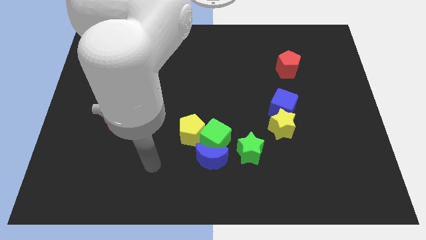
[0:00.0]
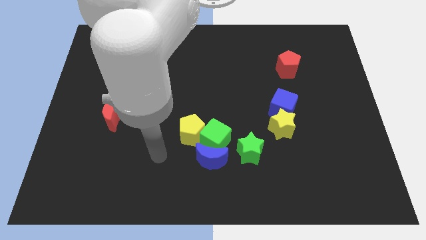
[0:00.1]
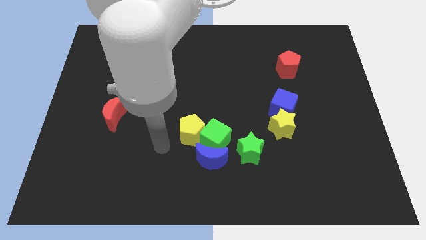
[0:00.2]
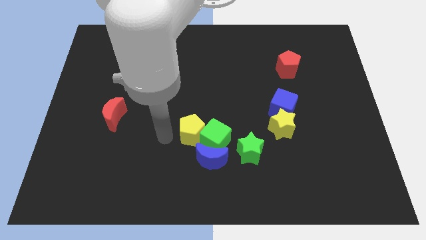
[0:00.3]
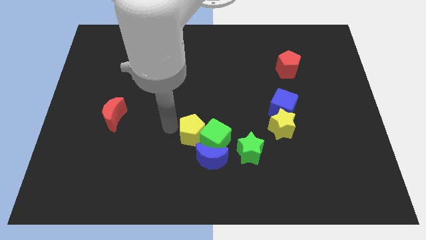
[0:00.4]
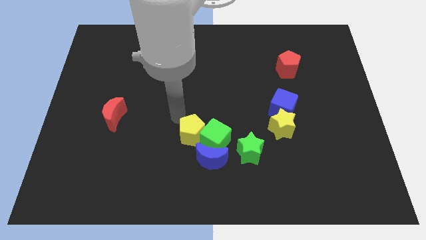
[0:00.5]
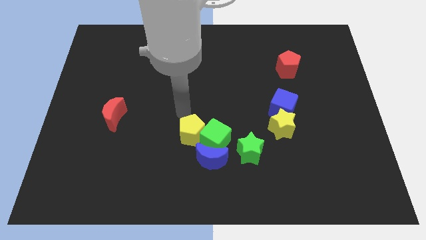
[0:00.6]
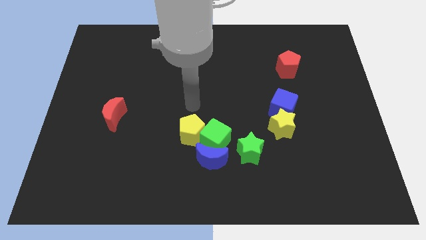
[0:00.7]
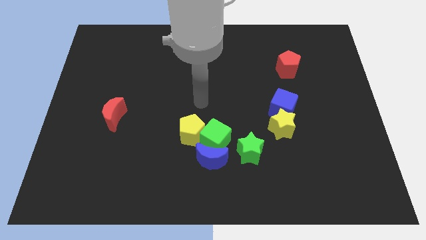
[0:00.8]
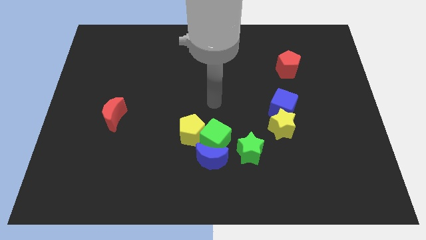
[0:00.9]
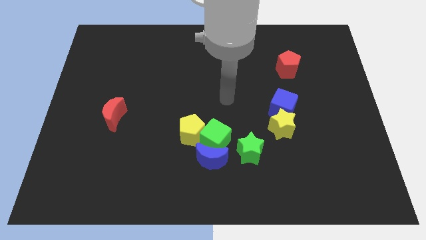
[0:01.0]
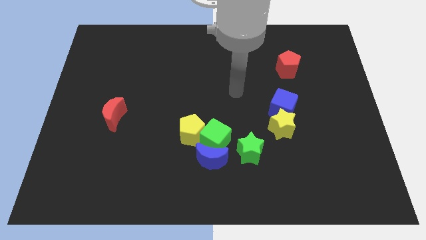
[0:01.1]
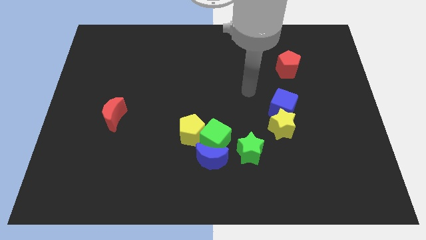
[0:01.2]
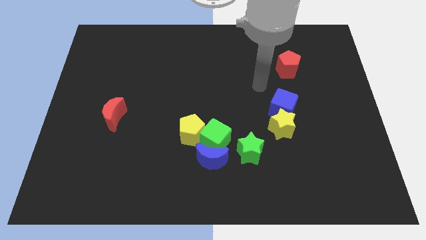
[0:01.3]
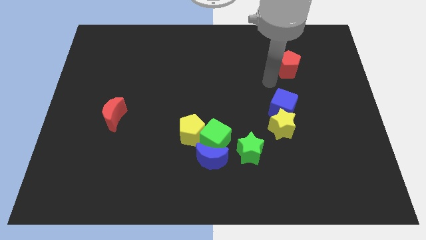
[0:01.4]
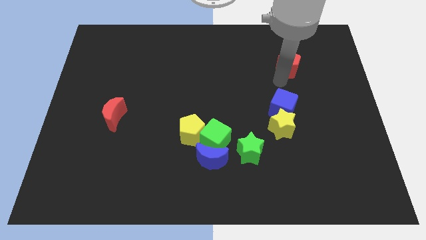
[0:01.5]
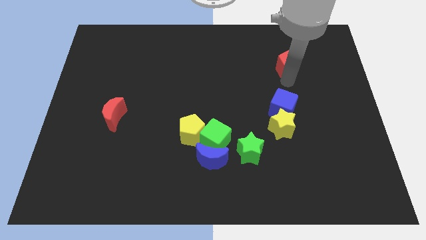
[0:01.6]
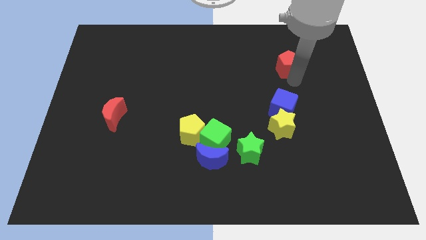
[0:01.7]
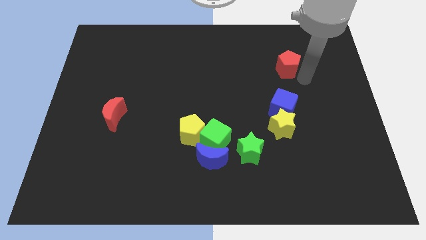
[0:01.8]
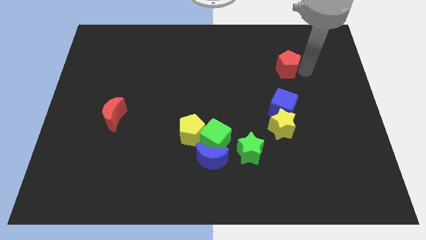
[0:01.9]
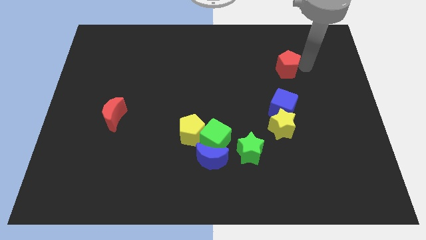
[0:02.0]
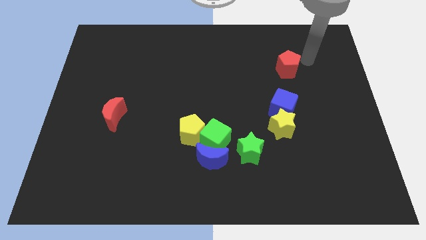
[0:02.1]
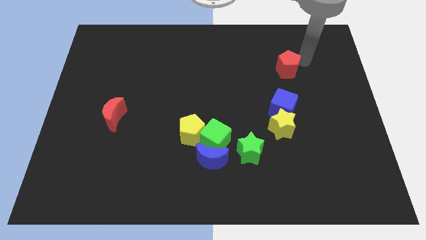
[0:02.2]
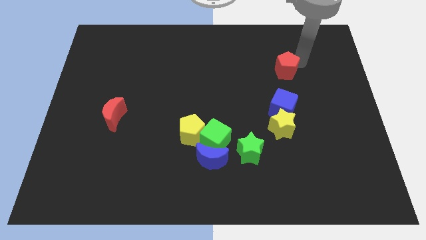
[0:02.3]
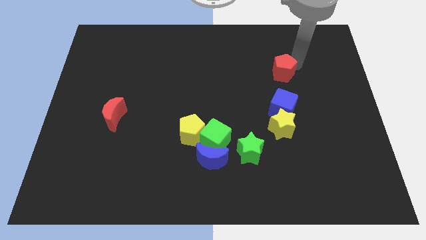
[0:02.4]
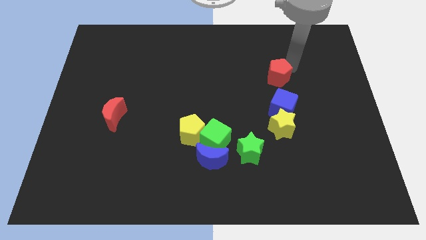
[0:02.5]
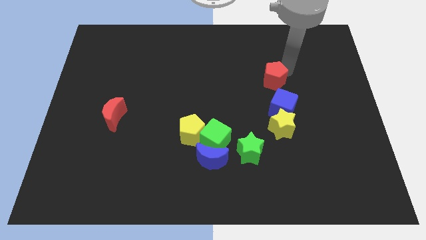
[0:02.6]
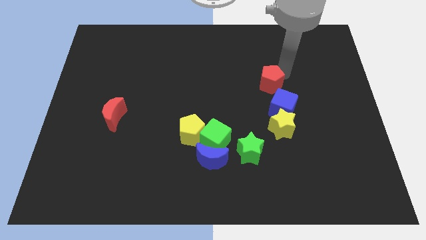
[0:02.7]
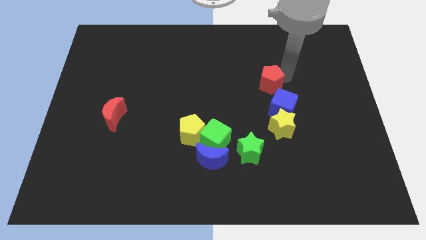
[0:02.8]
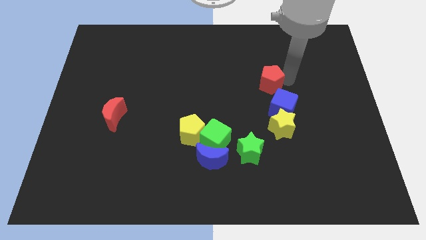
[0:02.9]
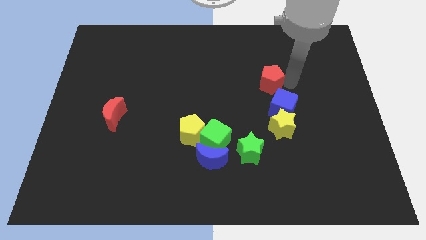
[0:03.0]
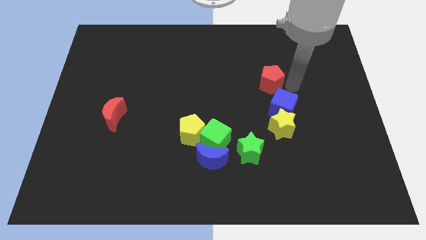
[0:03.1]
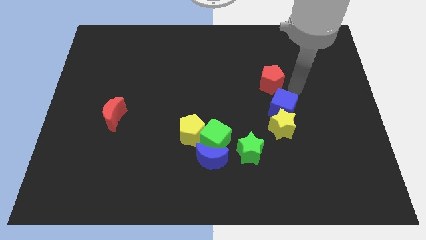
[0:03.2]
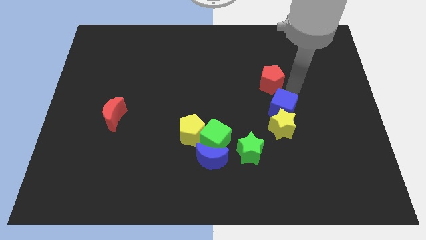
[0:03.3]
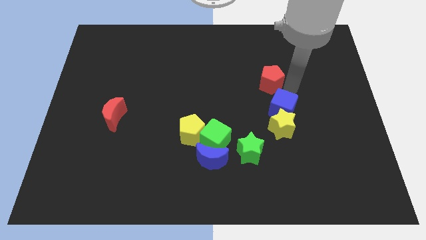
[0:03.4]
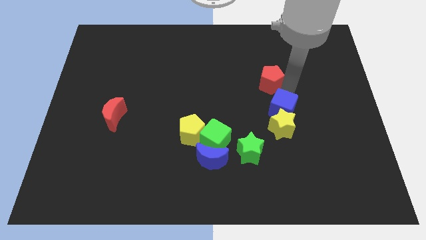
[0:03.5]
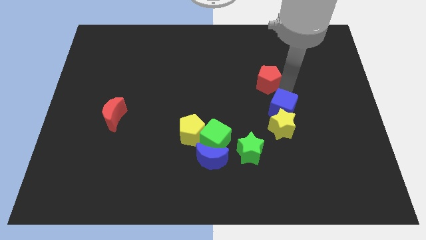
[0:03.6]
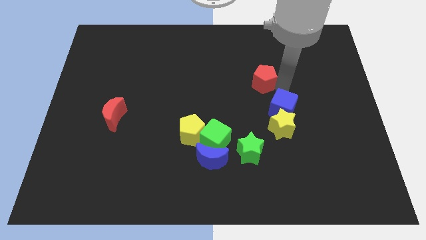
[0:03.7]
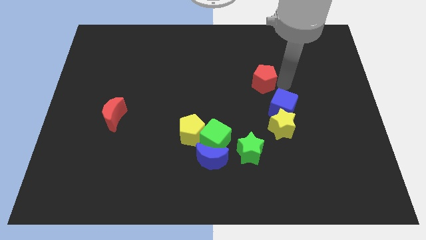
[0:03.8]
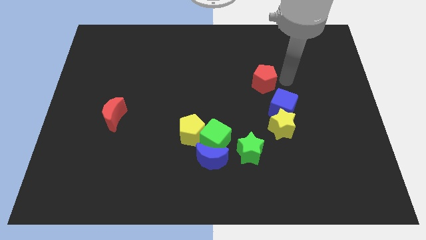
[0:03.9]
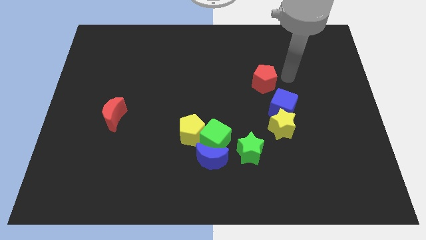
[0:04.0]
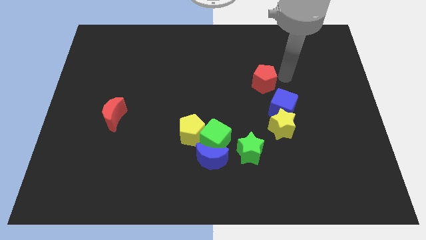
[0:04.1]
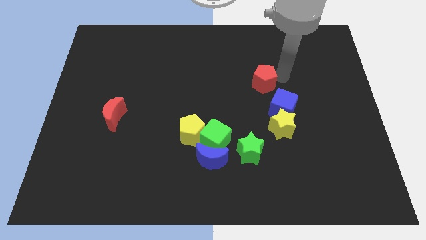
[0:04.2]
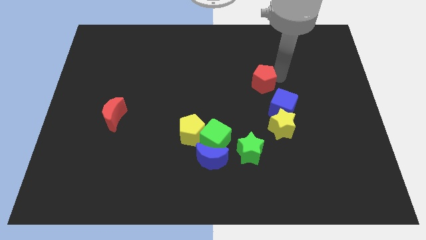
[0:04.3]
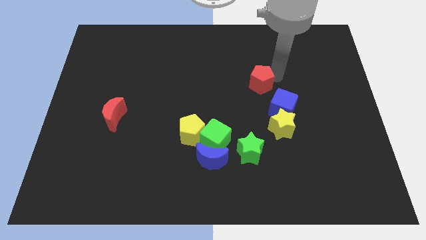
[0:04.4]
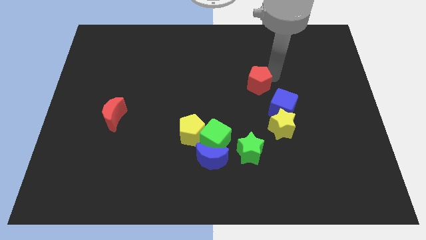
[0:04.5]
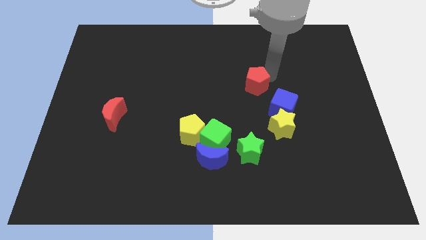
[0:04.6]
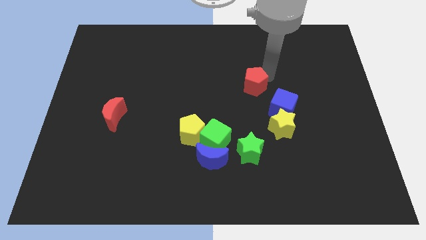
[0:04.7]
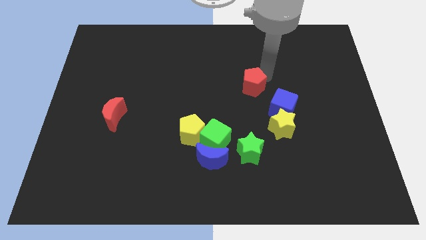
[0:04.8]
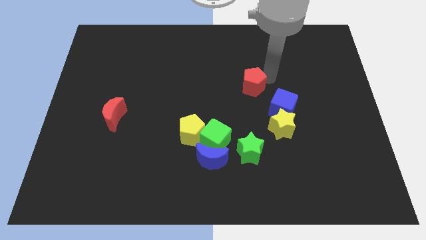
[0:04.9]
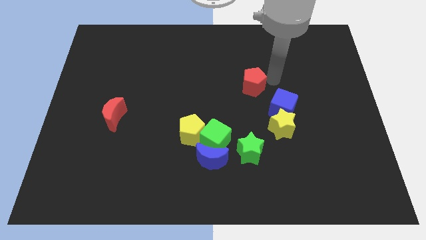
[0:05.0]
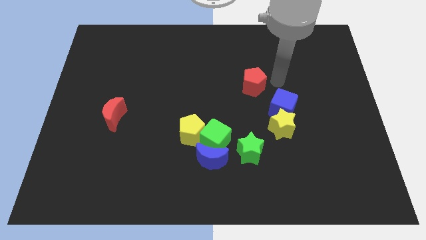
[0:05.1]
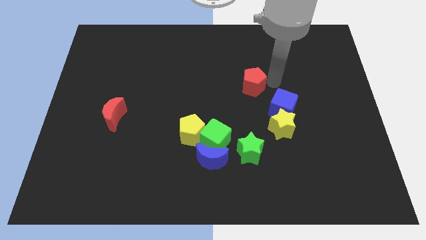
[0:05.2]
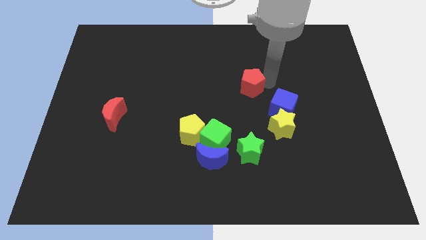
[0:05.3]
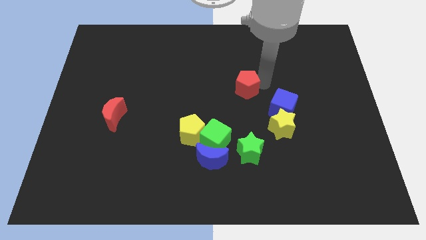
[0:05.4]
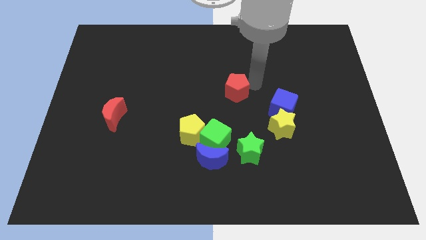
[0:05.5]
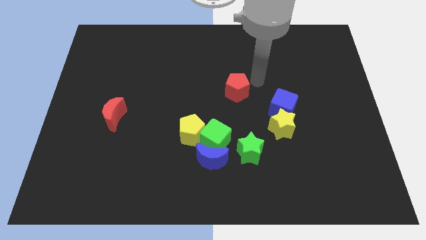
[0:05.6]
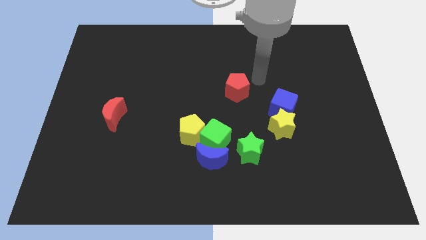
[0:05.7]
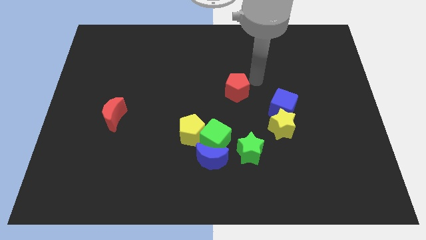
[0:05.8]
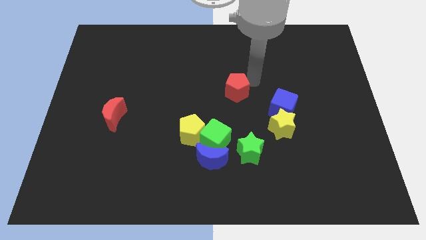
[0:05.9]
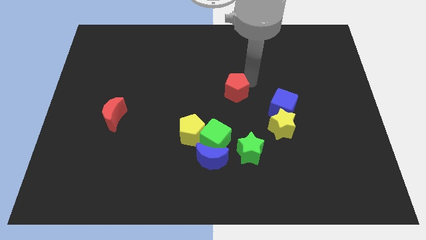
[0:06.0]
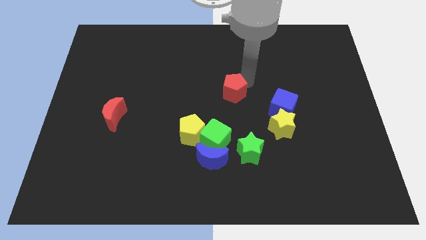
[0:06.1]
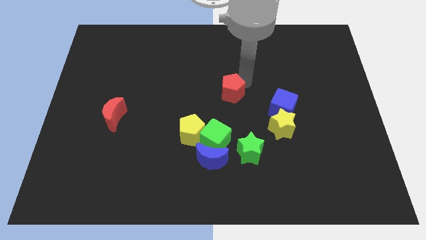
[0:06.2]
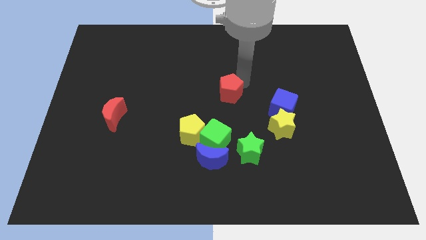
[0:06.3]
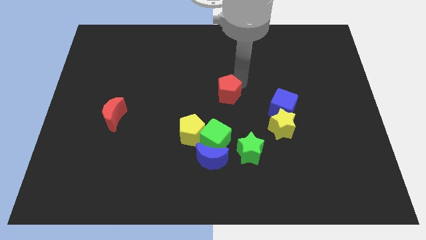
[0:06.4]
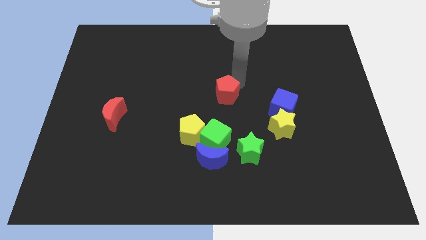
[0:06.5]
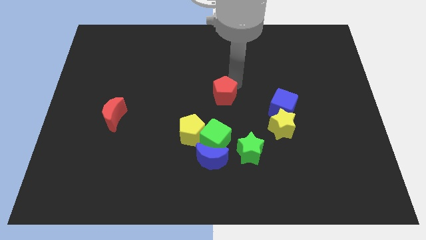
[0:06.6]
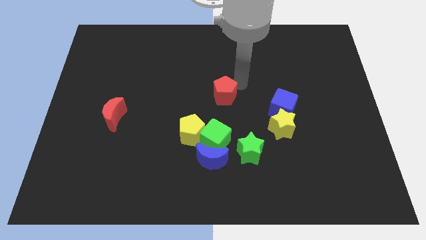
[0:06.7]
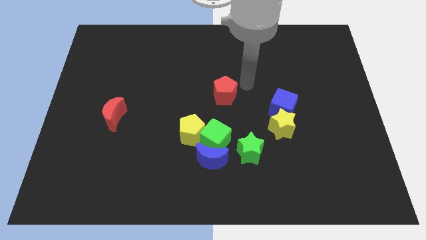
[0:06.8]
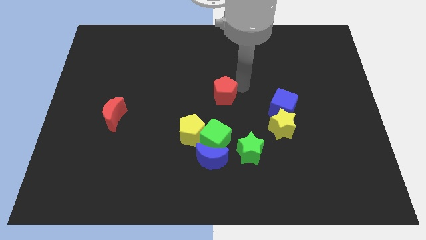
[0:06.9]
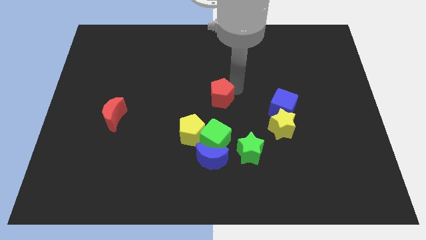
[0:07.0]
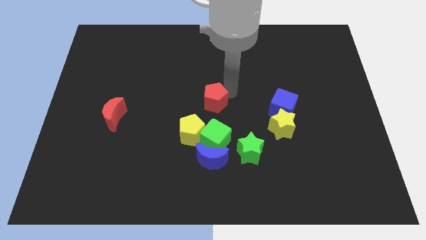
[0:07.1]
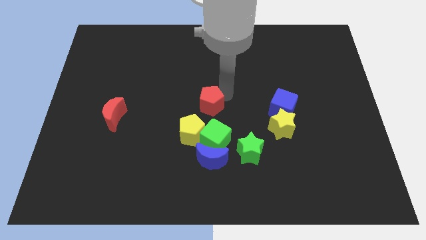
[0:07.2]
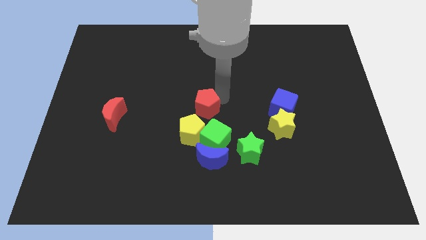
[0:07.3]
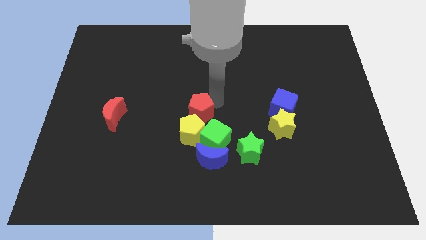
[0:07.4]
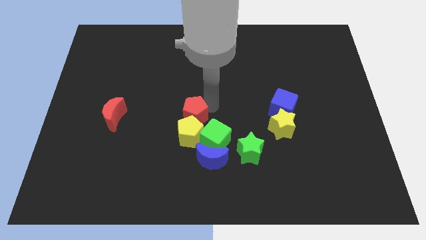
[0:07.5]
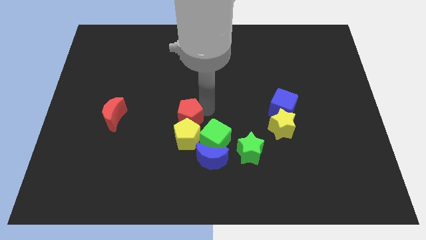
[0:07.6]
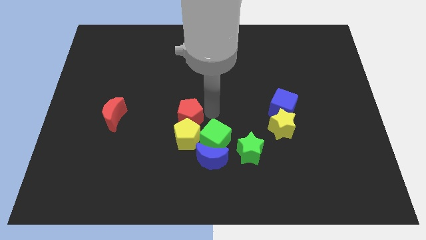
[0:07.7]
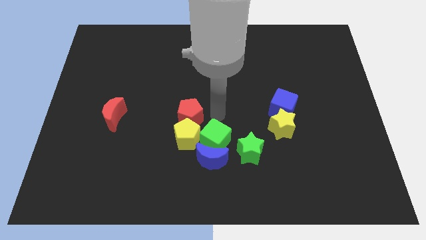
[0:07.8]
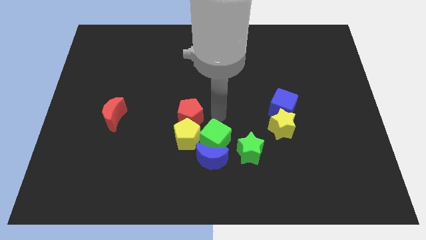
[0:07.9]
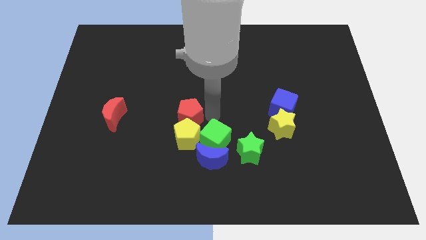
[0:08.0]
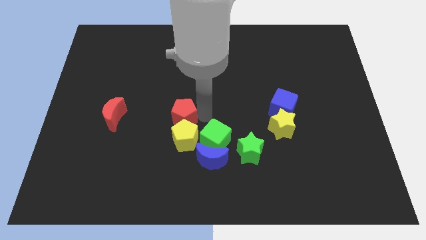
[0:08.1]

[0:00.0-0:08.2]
slide the red pentagon to the right side of the red moon
